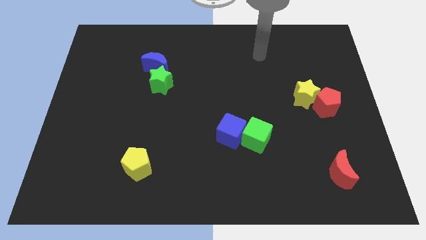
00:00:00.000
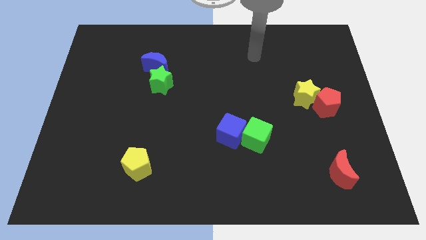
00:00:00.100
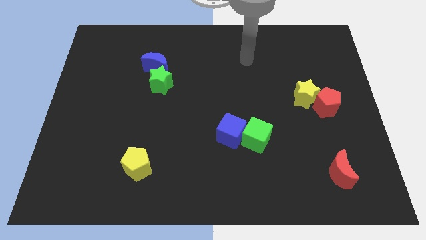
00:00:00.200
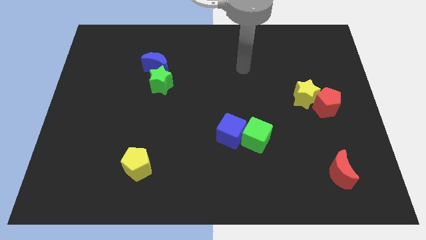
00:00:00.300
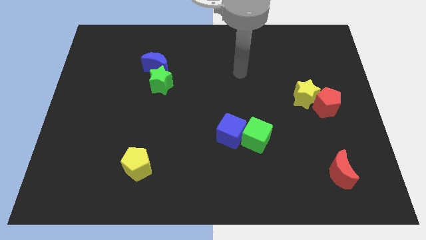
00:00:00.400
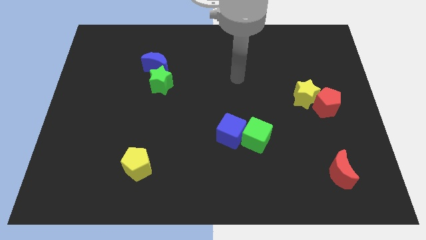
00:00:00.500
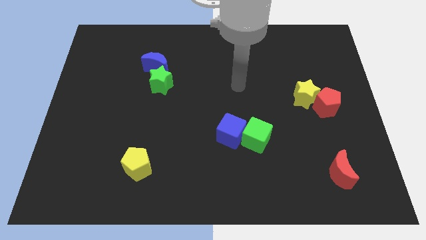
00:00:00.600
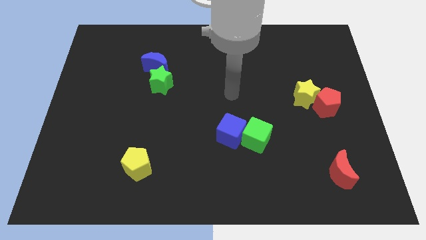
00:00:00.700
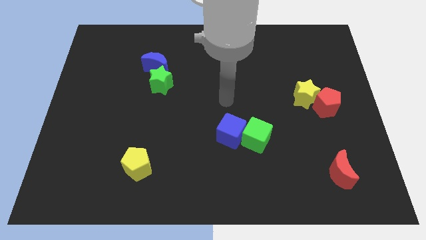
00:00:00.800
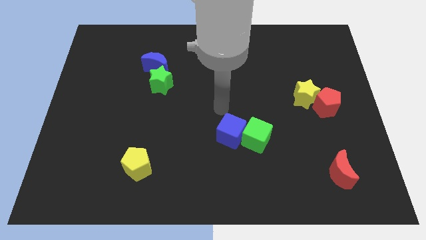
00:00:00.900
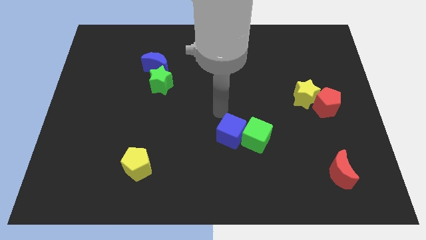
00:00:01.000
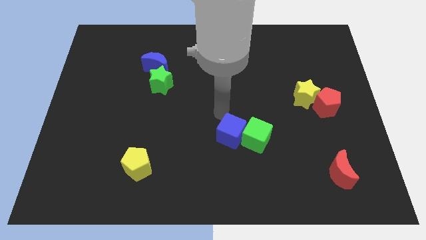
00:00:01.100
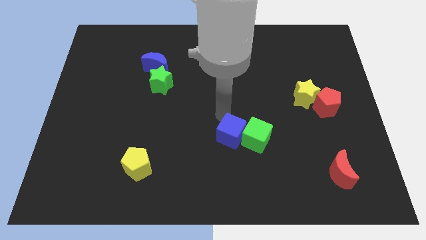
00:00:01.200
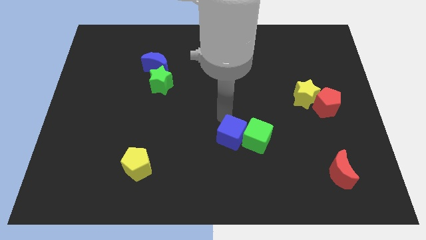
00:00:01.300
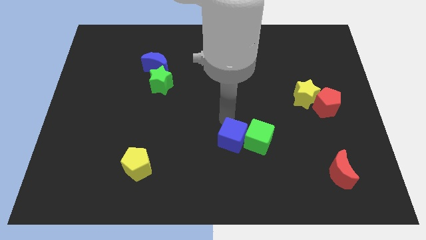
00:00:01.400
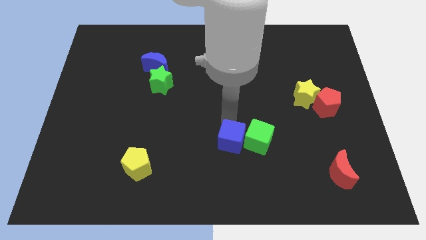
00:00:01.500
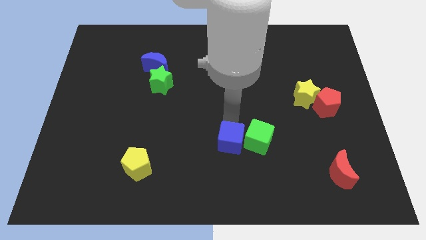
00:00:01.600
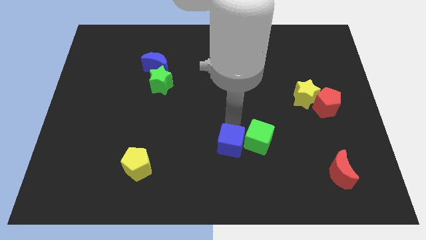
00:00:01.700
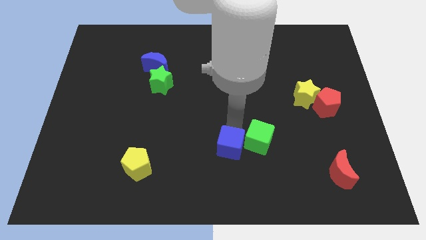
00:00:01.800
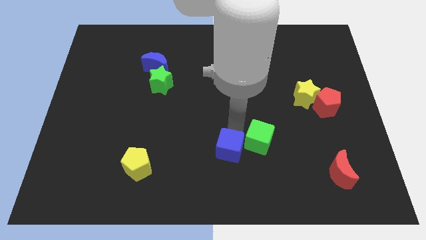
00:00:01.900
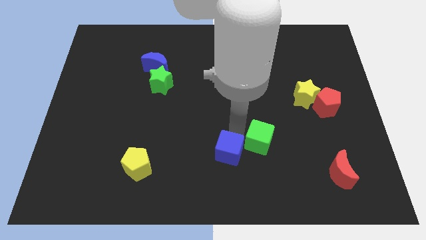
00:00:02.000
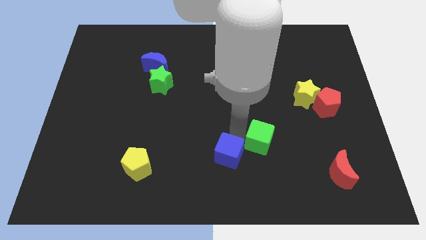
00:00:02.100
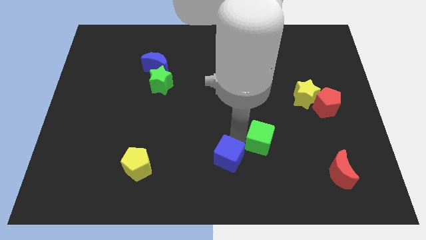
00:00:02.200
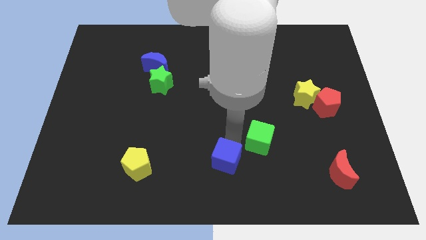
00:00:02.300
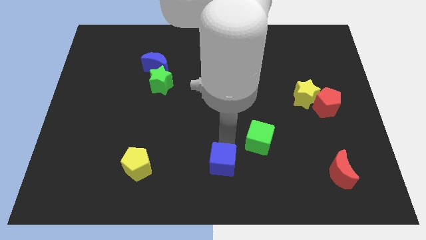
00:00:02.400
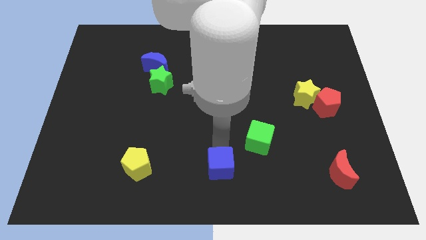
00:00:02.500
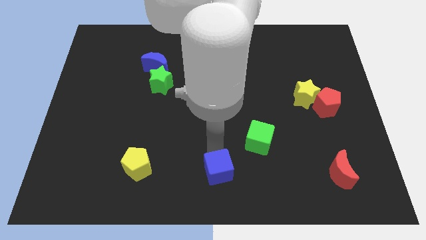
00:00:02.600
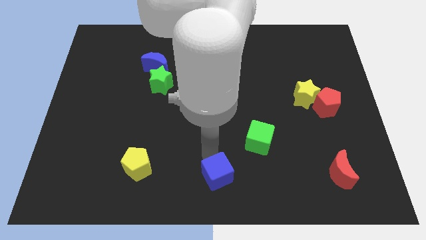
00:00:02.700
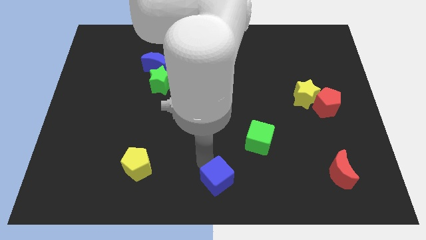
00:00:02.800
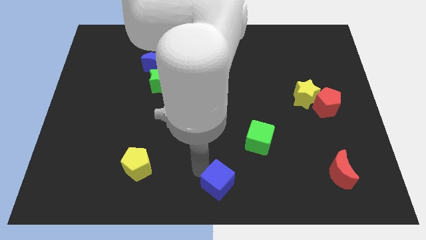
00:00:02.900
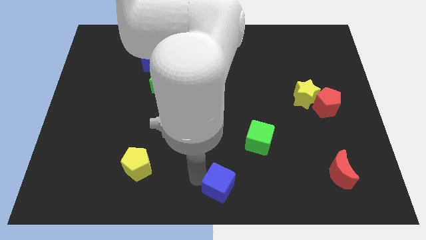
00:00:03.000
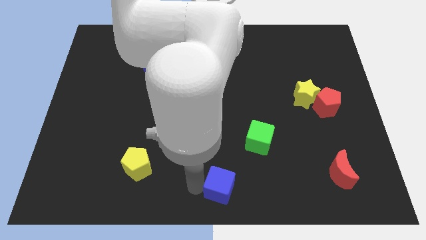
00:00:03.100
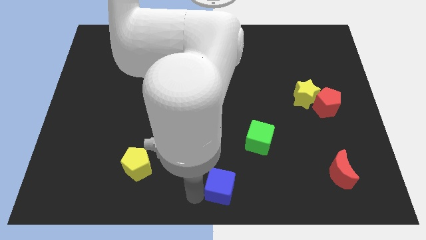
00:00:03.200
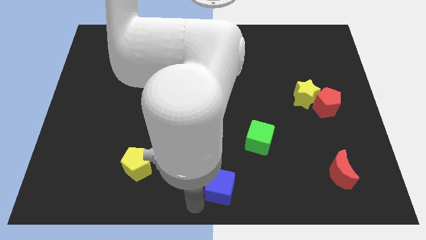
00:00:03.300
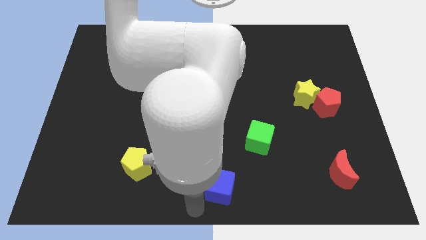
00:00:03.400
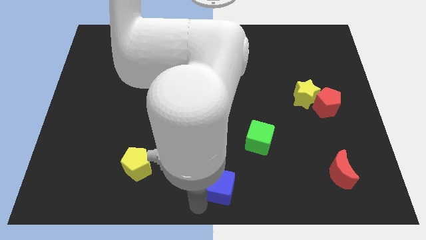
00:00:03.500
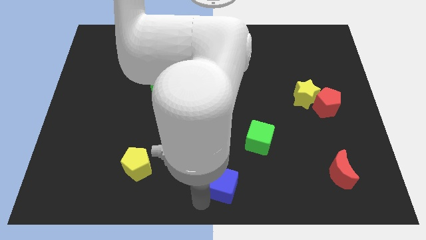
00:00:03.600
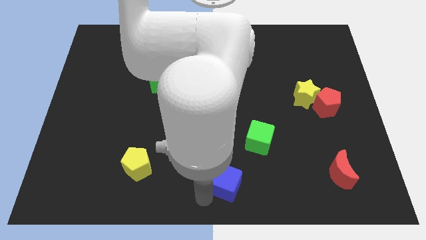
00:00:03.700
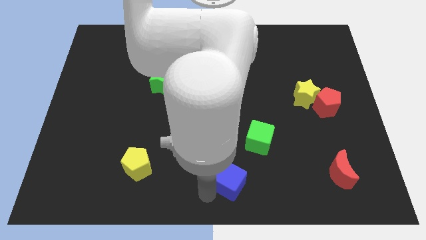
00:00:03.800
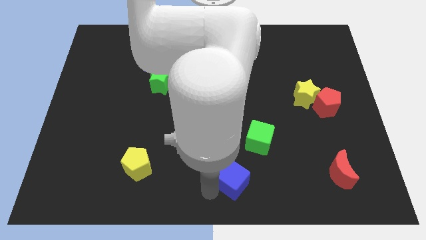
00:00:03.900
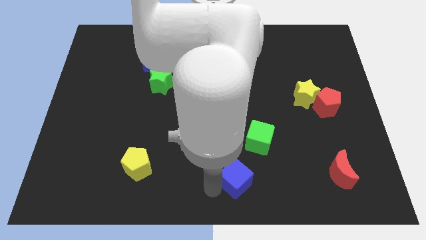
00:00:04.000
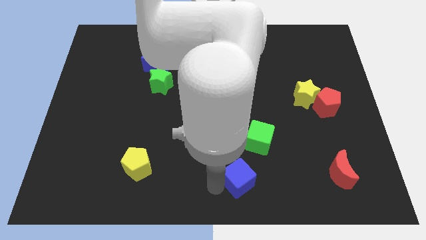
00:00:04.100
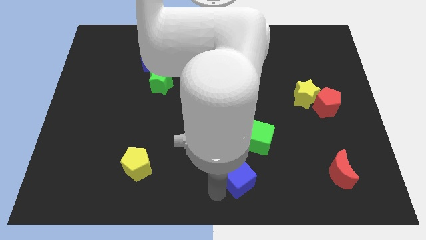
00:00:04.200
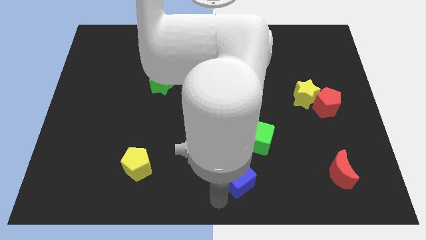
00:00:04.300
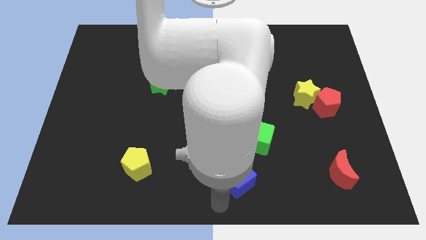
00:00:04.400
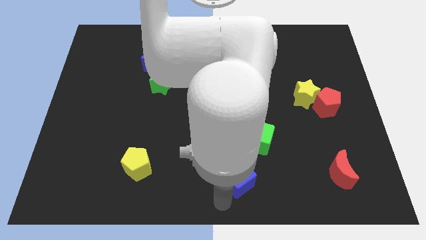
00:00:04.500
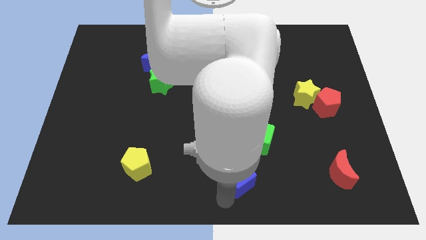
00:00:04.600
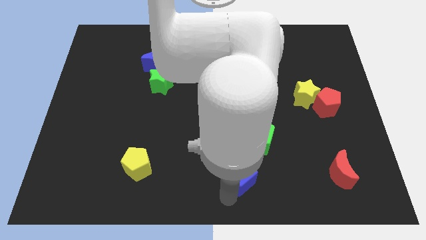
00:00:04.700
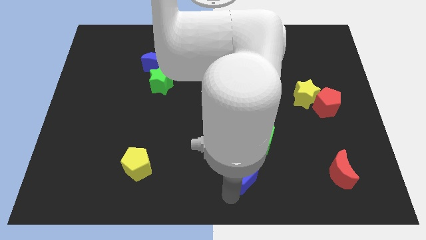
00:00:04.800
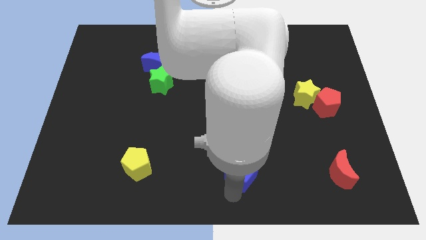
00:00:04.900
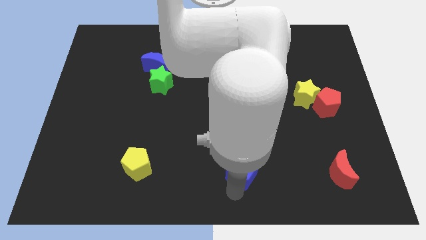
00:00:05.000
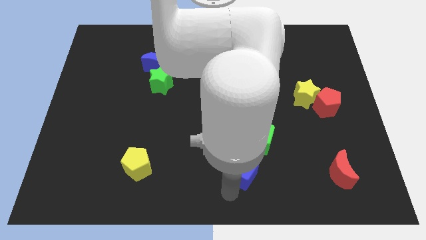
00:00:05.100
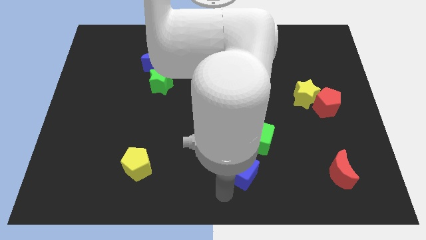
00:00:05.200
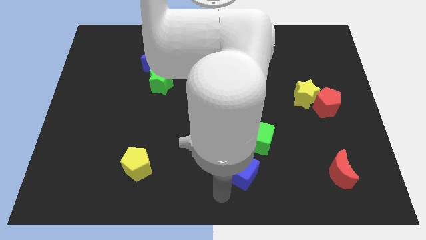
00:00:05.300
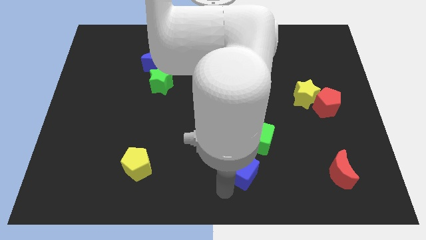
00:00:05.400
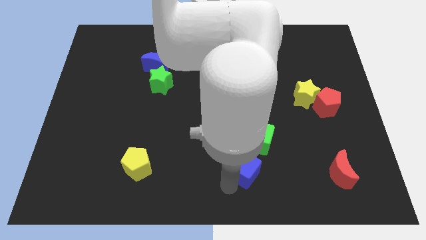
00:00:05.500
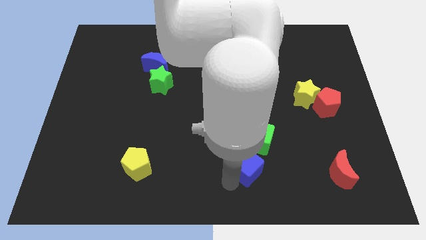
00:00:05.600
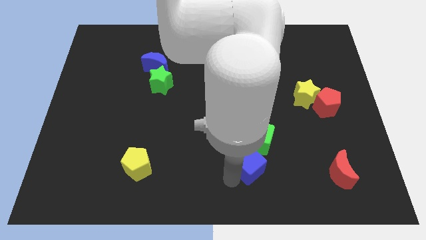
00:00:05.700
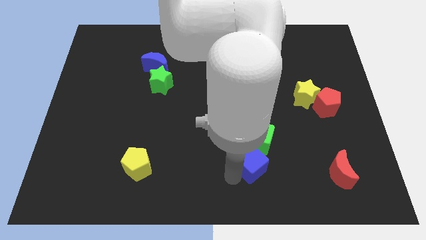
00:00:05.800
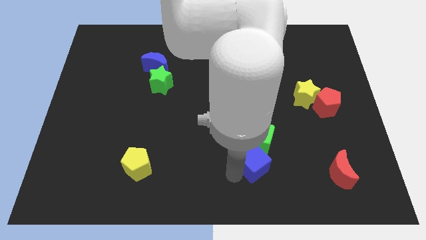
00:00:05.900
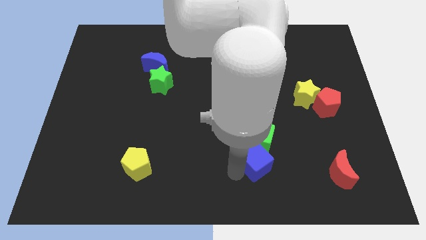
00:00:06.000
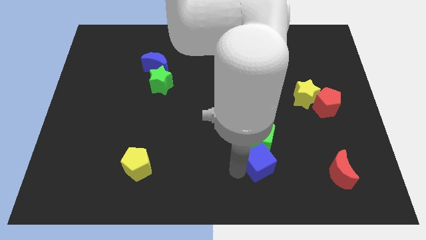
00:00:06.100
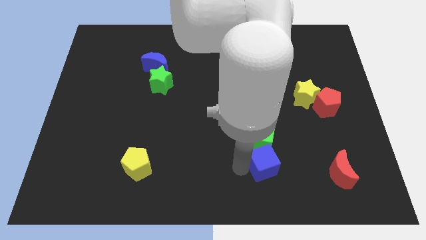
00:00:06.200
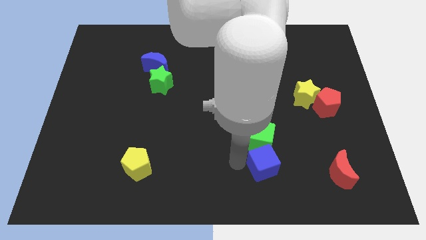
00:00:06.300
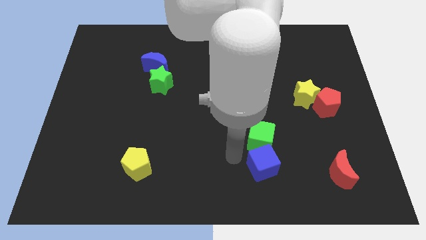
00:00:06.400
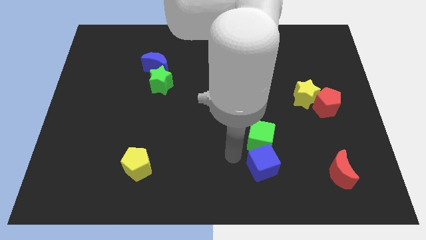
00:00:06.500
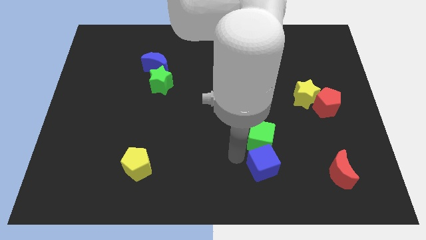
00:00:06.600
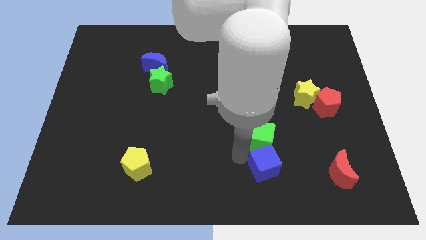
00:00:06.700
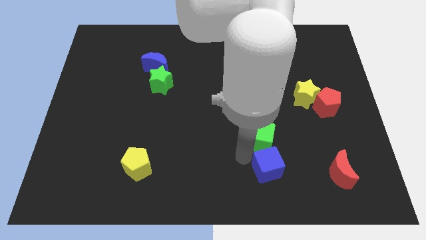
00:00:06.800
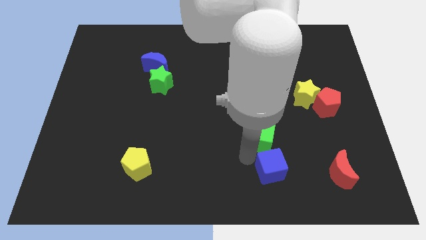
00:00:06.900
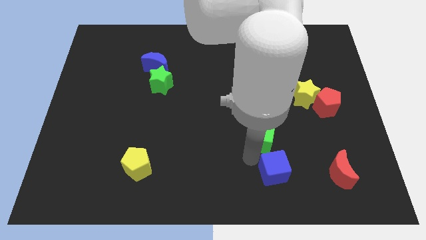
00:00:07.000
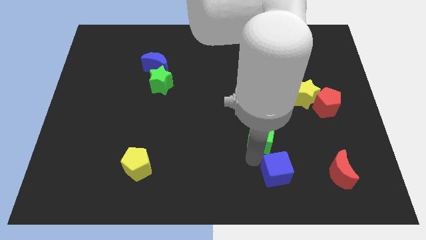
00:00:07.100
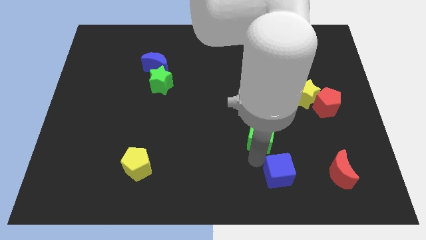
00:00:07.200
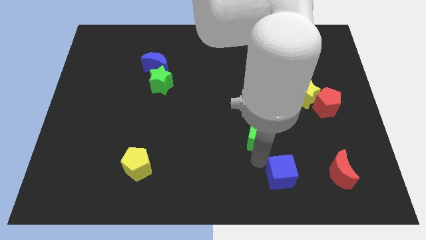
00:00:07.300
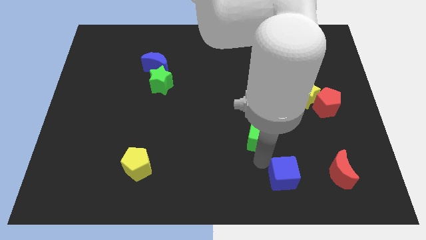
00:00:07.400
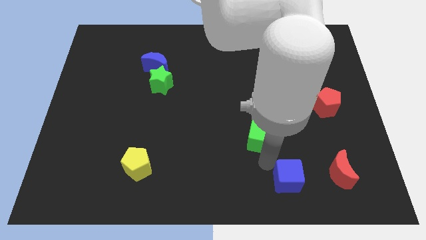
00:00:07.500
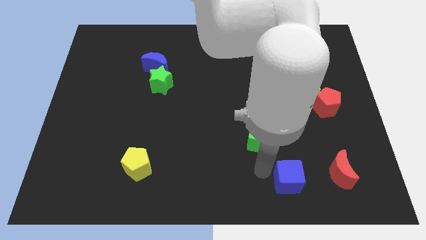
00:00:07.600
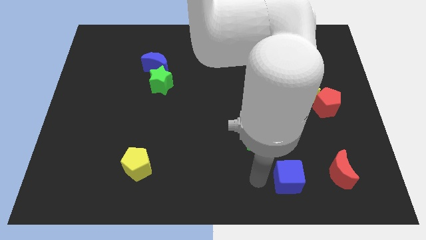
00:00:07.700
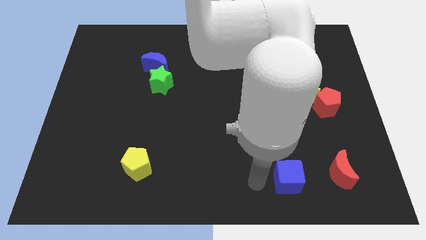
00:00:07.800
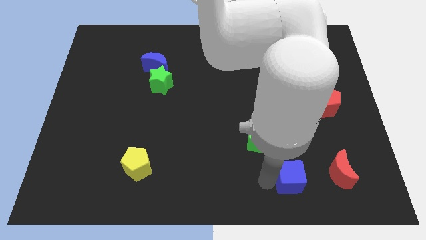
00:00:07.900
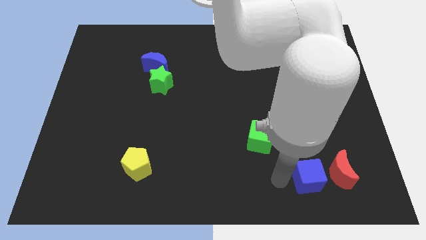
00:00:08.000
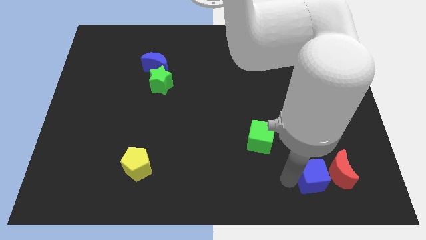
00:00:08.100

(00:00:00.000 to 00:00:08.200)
push the blue cube towards the red moon
